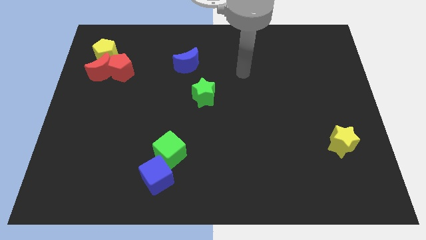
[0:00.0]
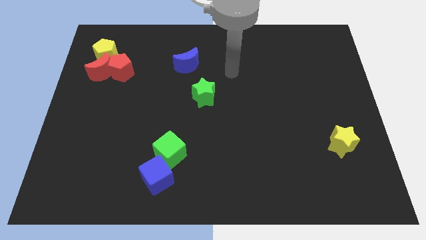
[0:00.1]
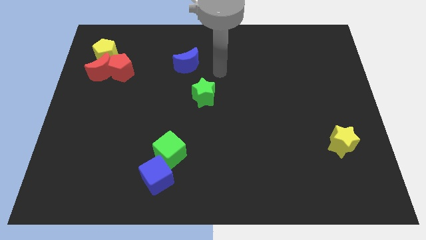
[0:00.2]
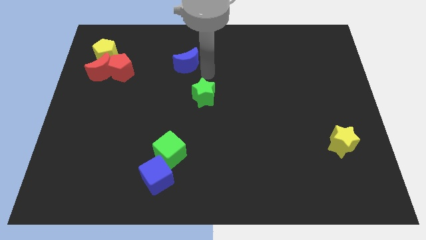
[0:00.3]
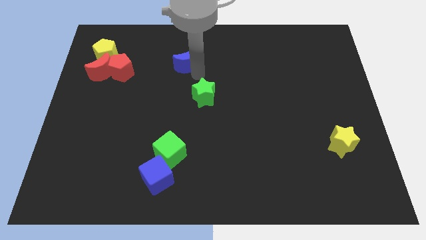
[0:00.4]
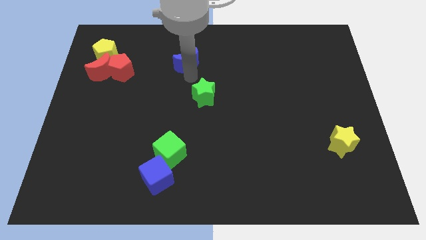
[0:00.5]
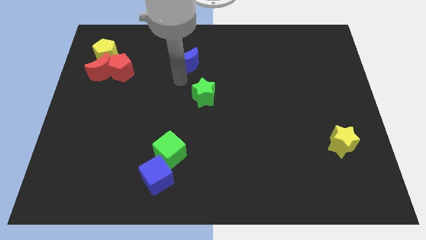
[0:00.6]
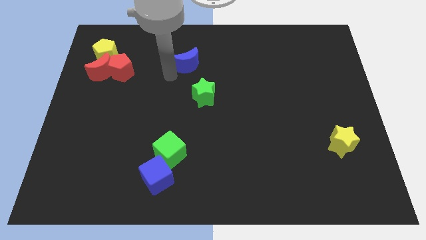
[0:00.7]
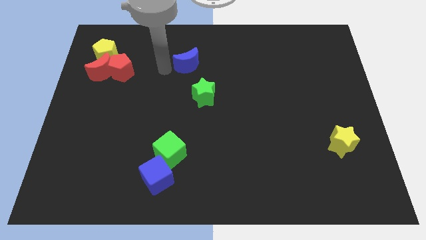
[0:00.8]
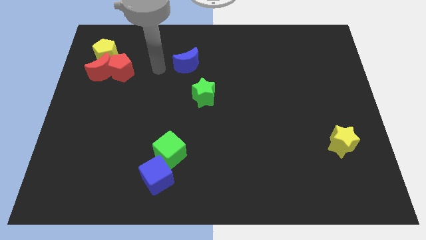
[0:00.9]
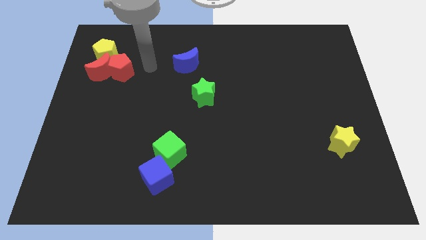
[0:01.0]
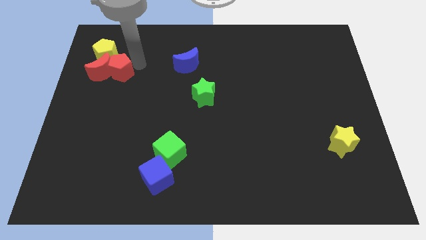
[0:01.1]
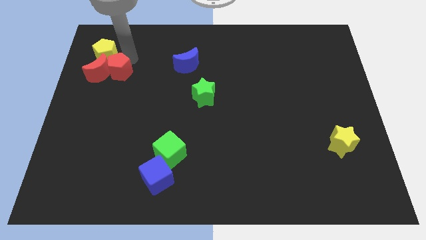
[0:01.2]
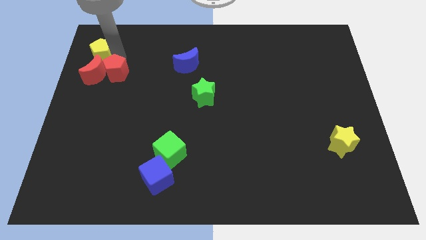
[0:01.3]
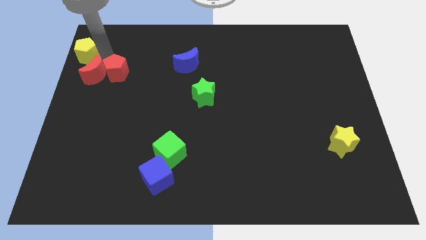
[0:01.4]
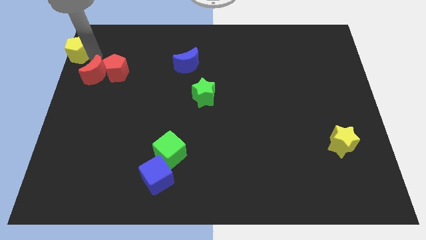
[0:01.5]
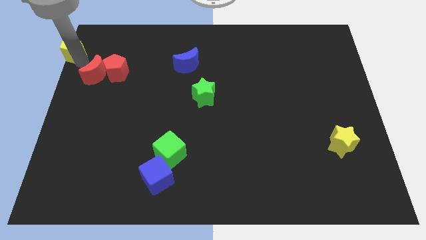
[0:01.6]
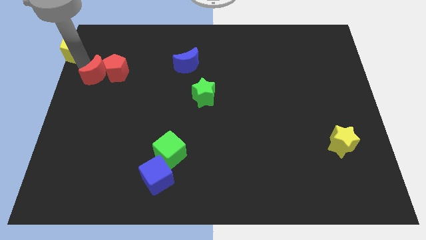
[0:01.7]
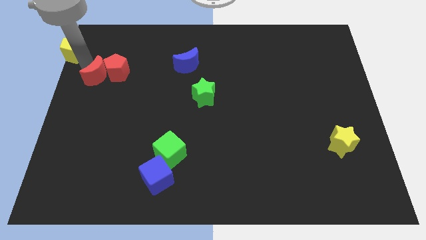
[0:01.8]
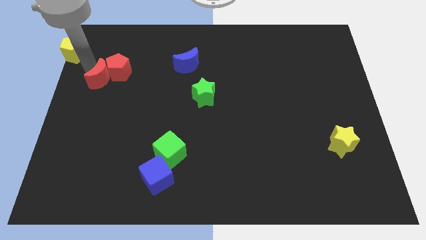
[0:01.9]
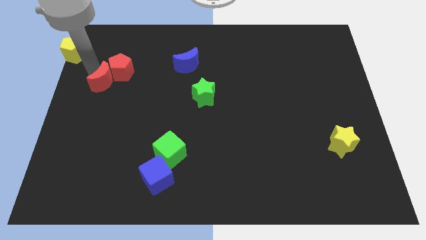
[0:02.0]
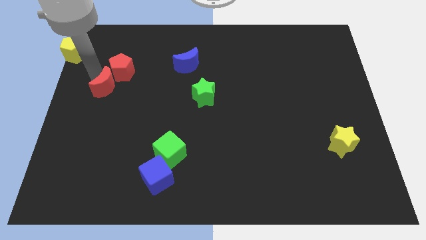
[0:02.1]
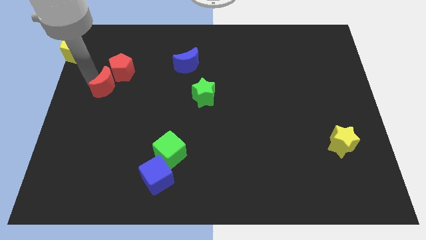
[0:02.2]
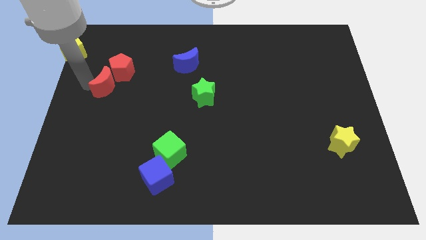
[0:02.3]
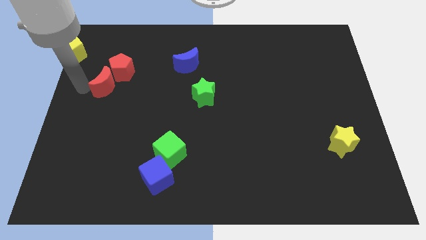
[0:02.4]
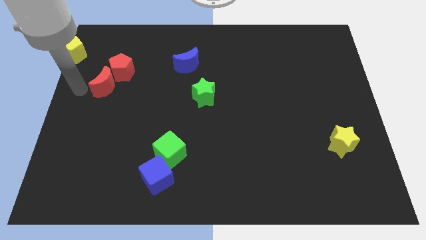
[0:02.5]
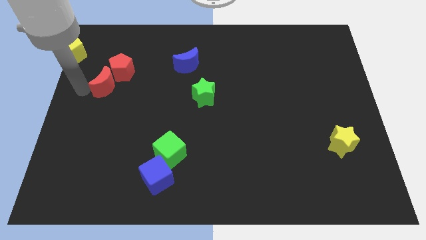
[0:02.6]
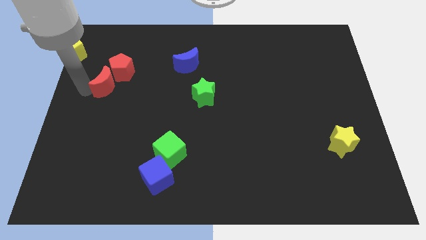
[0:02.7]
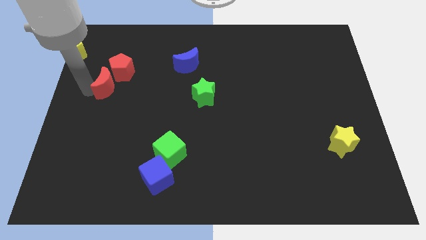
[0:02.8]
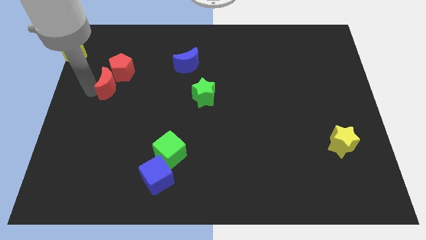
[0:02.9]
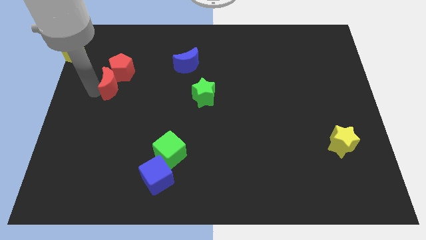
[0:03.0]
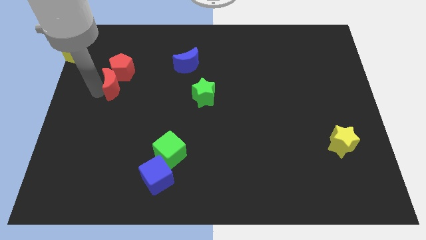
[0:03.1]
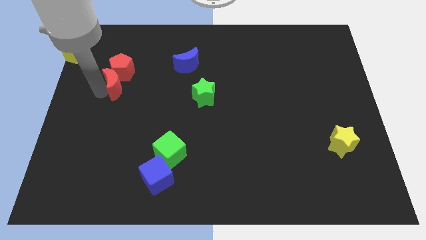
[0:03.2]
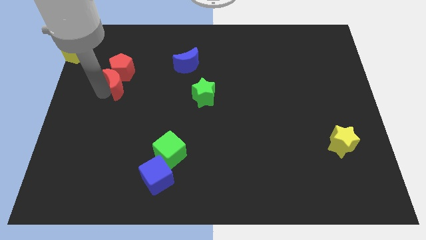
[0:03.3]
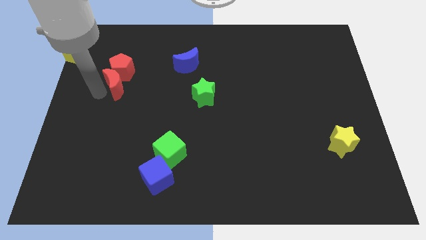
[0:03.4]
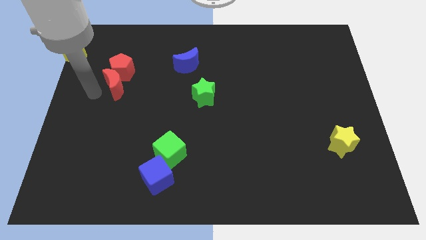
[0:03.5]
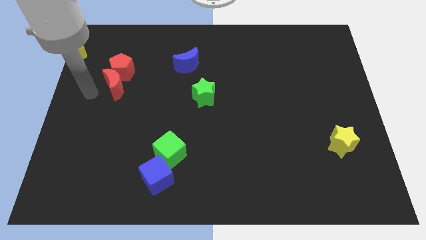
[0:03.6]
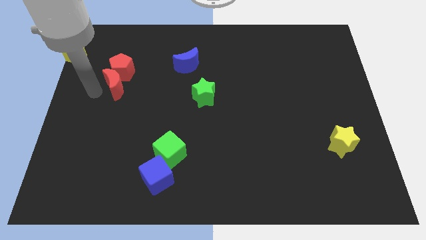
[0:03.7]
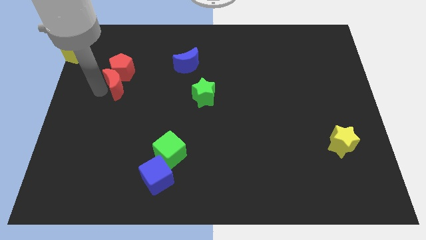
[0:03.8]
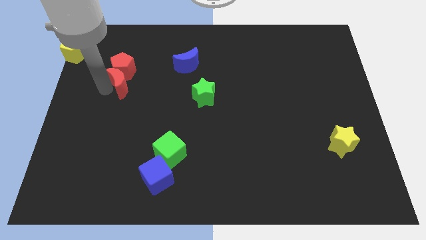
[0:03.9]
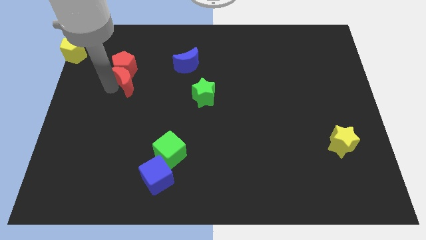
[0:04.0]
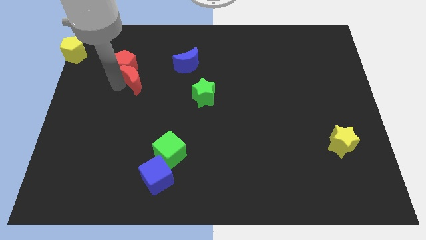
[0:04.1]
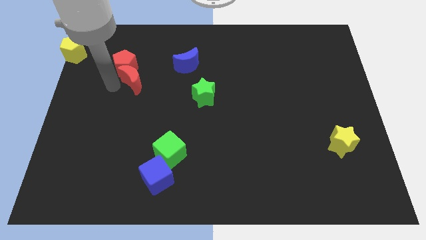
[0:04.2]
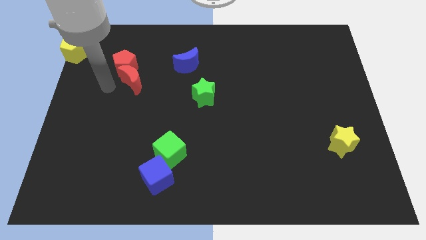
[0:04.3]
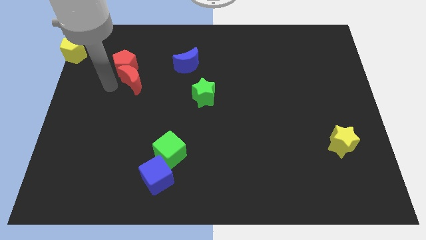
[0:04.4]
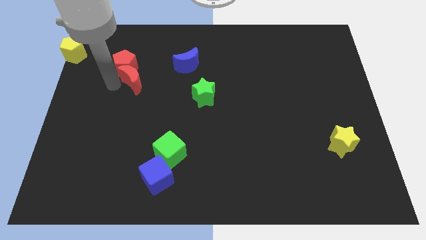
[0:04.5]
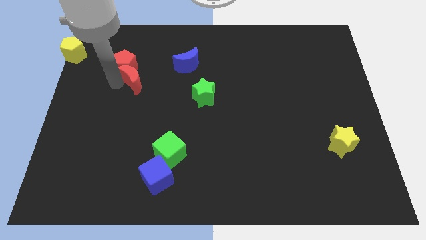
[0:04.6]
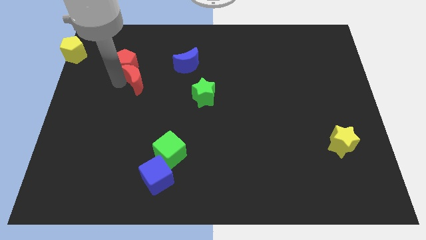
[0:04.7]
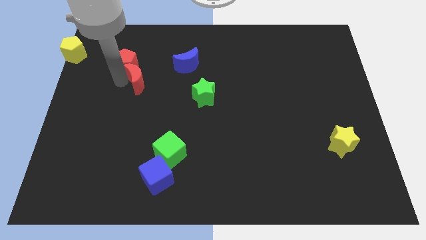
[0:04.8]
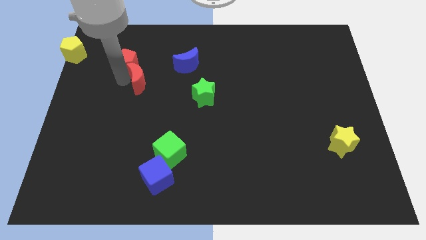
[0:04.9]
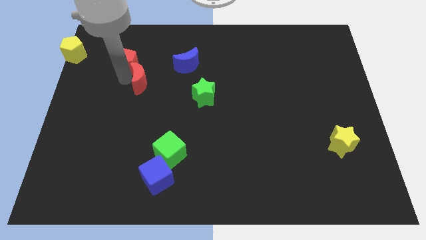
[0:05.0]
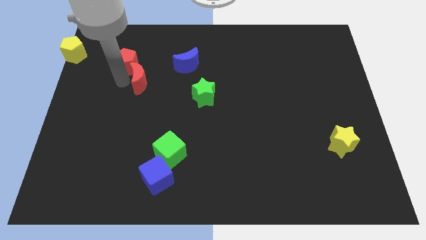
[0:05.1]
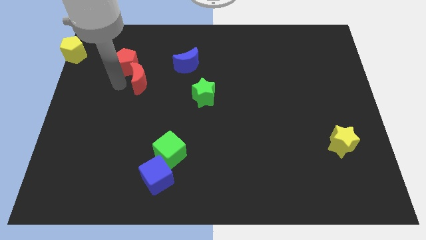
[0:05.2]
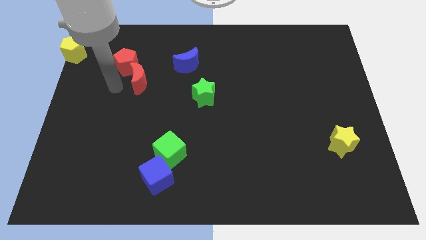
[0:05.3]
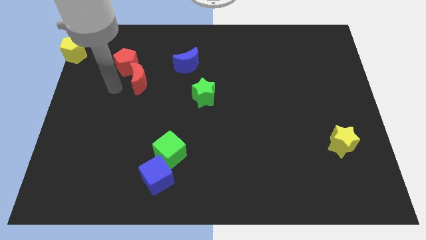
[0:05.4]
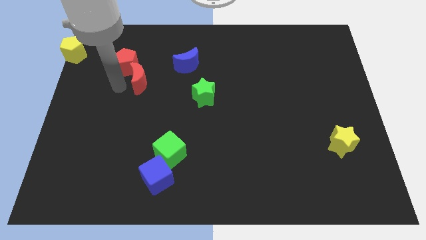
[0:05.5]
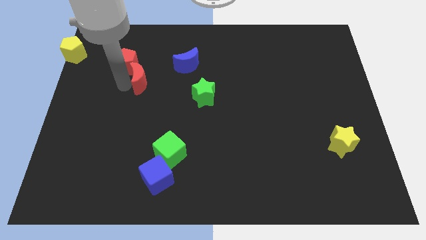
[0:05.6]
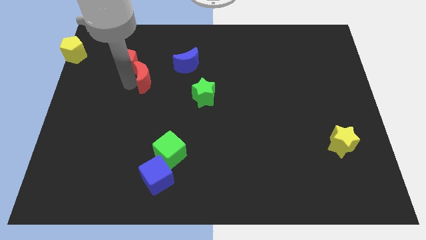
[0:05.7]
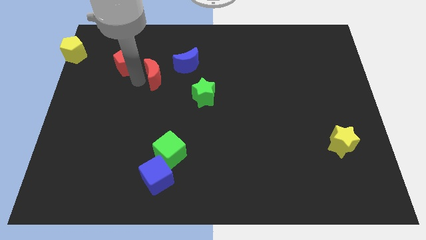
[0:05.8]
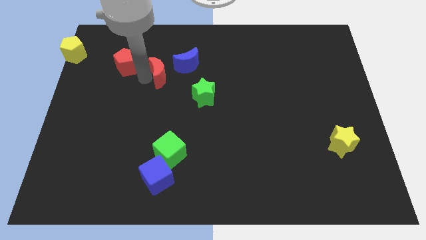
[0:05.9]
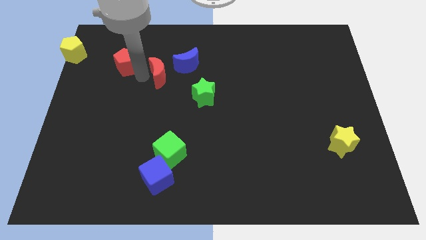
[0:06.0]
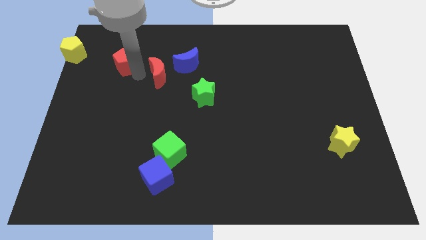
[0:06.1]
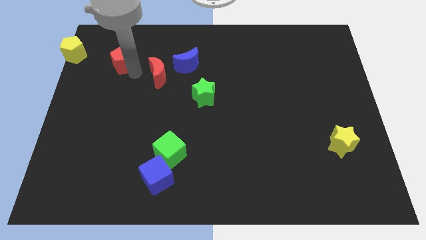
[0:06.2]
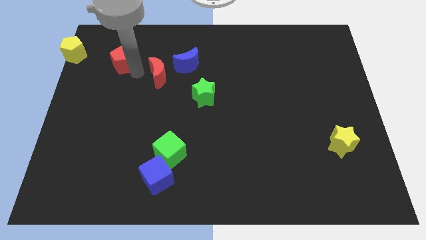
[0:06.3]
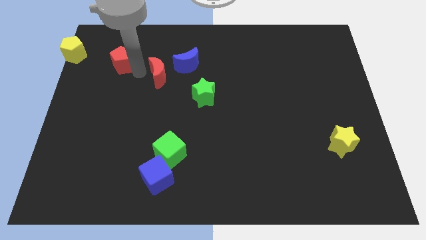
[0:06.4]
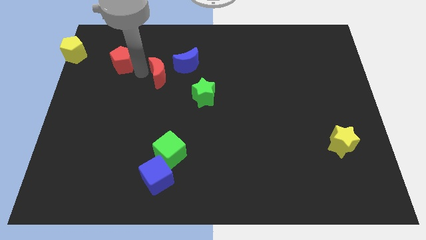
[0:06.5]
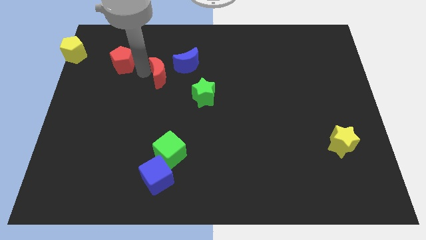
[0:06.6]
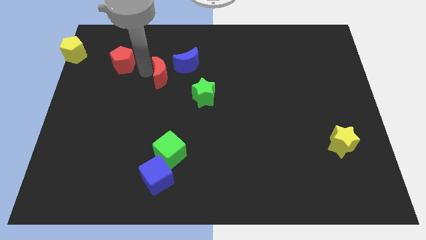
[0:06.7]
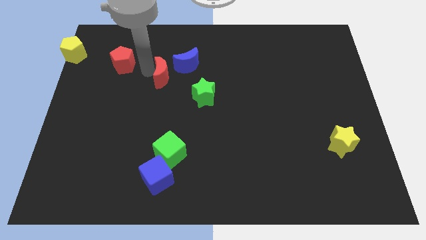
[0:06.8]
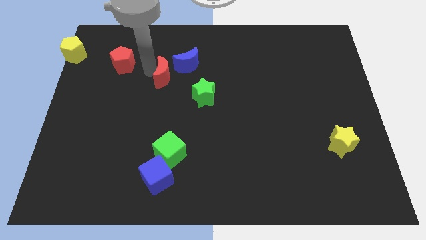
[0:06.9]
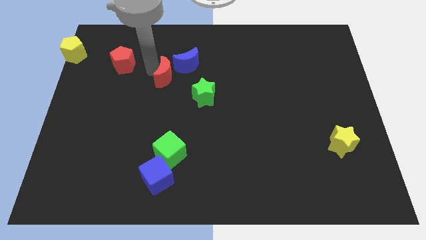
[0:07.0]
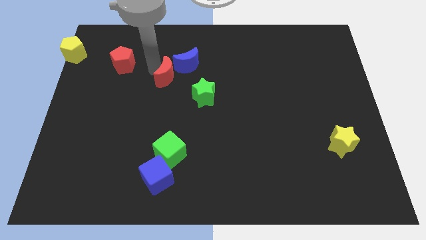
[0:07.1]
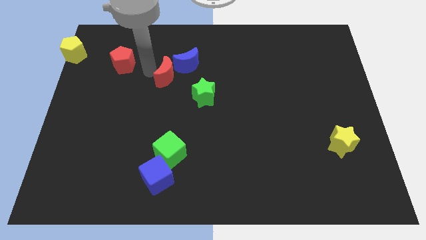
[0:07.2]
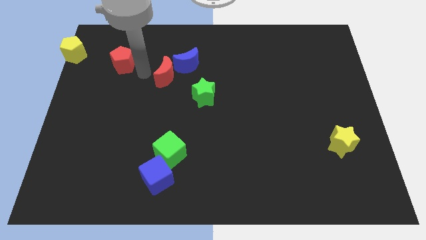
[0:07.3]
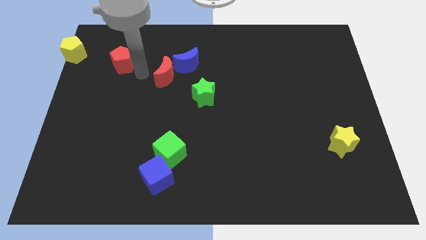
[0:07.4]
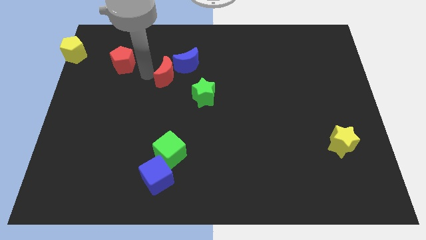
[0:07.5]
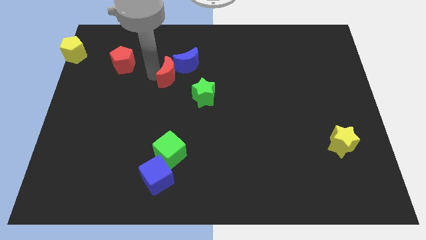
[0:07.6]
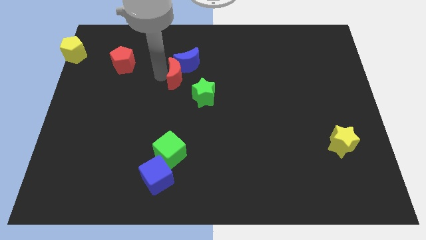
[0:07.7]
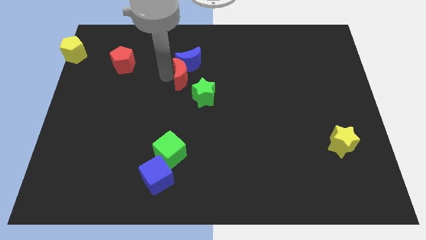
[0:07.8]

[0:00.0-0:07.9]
push the red moon right
